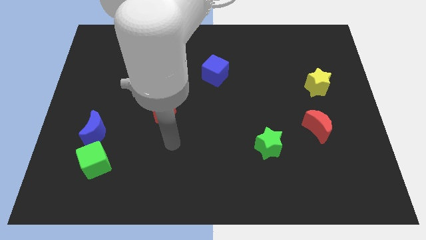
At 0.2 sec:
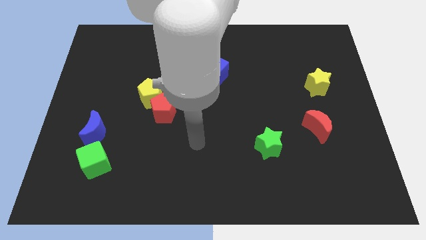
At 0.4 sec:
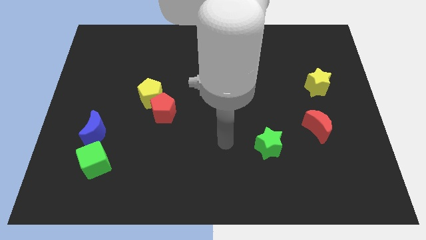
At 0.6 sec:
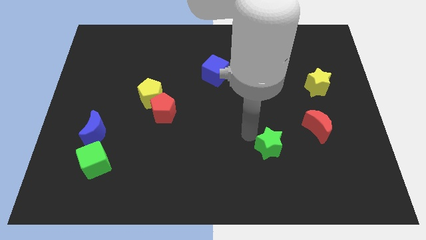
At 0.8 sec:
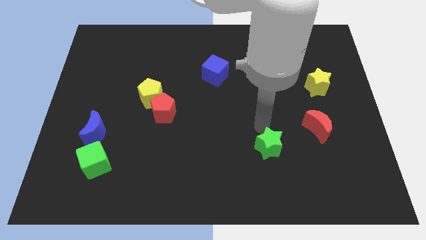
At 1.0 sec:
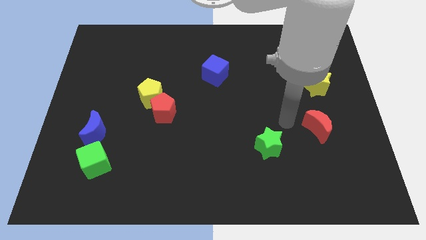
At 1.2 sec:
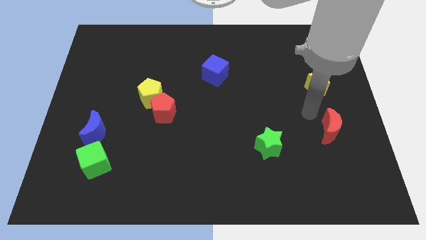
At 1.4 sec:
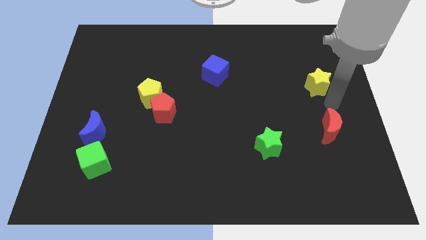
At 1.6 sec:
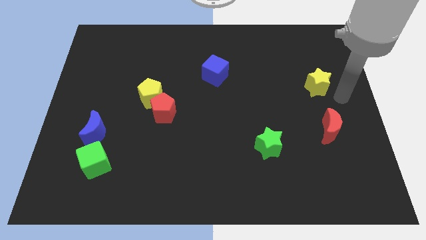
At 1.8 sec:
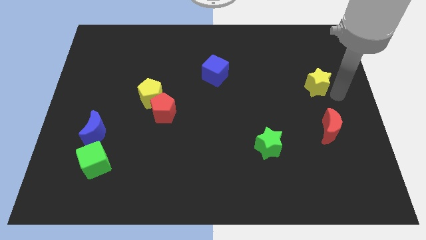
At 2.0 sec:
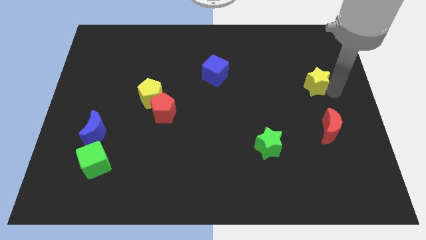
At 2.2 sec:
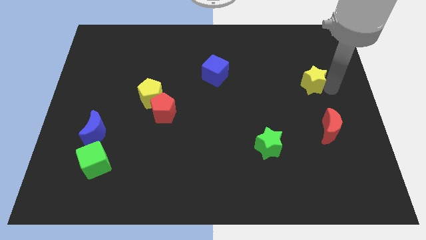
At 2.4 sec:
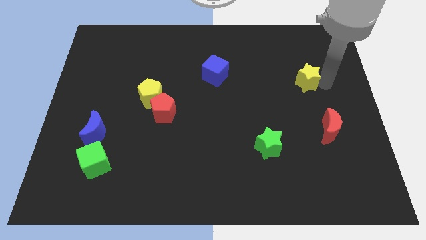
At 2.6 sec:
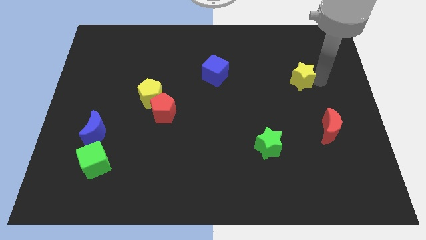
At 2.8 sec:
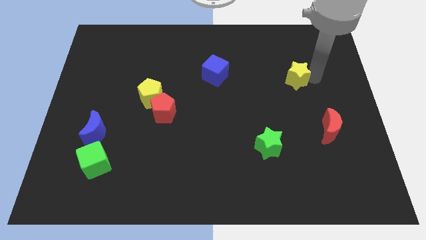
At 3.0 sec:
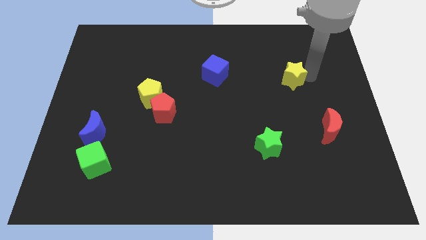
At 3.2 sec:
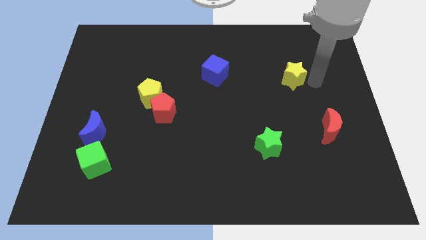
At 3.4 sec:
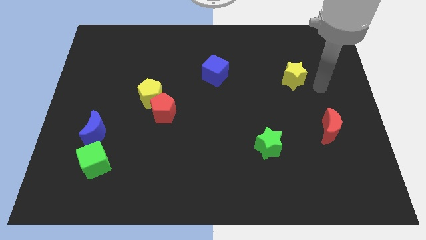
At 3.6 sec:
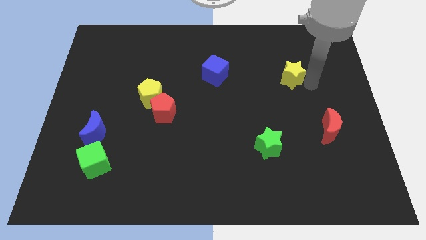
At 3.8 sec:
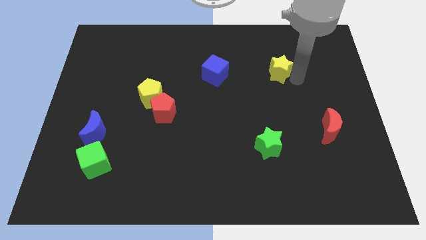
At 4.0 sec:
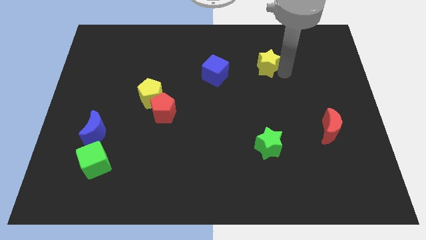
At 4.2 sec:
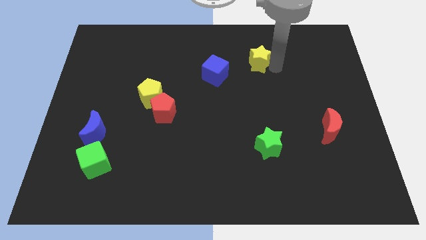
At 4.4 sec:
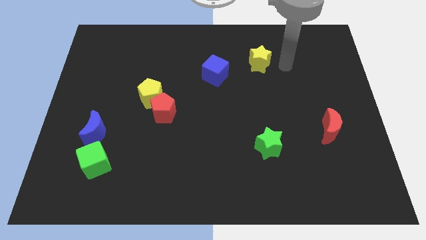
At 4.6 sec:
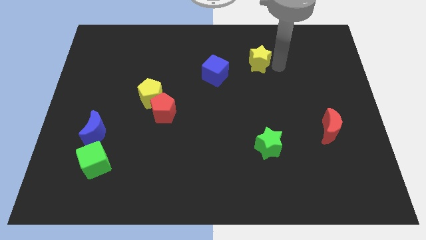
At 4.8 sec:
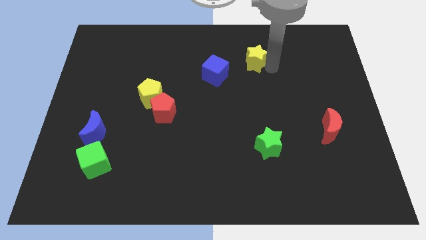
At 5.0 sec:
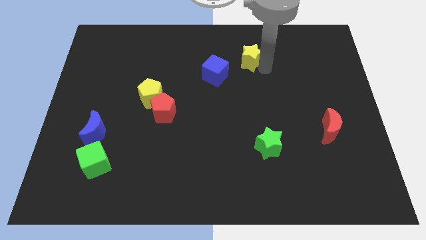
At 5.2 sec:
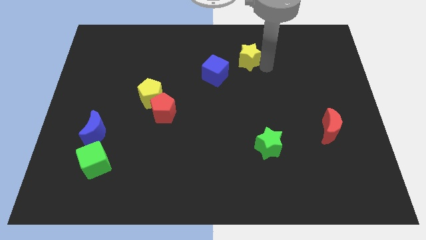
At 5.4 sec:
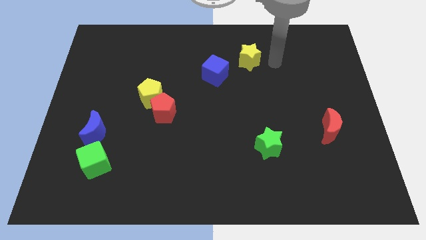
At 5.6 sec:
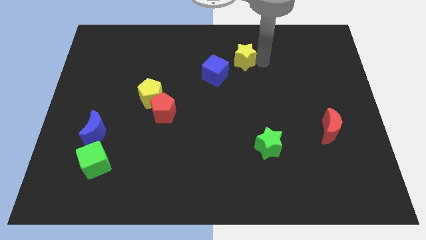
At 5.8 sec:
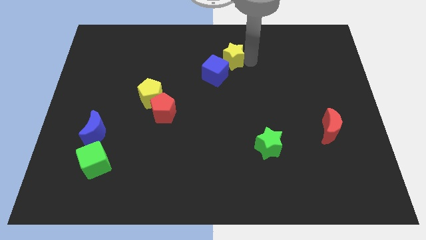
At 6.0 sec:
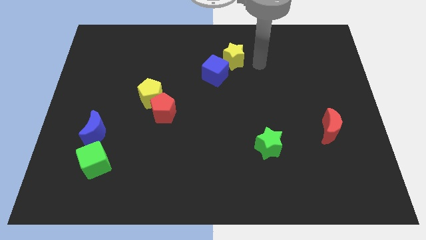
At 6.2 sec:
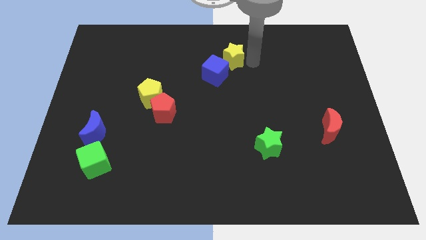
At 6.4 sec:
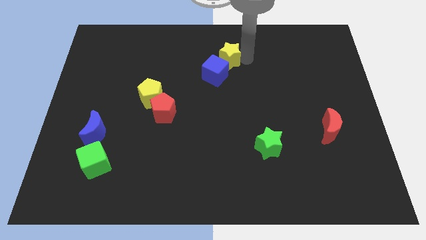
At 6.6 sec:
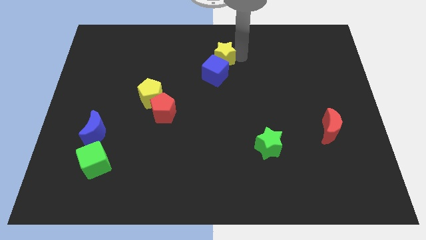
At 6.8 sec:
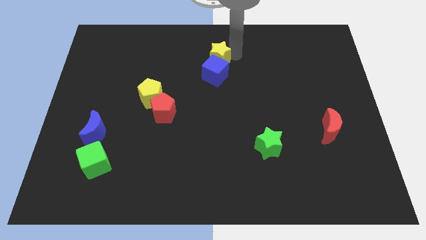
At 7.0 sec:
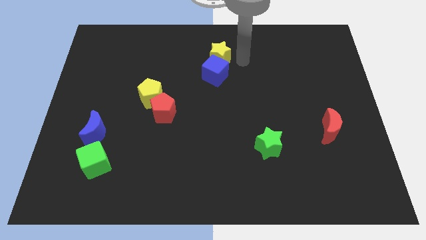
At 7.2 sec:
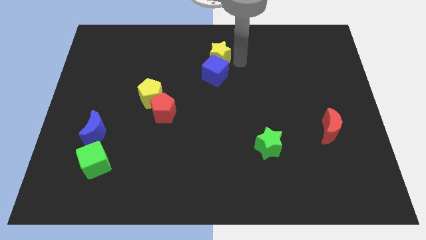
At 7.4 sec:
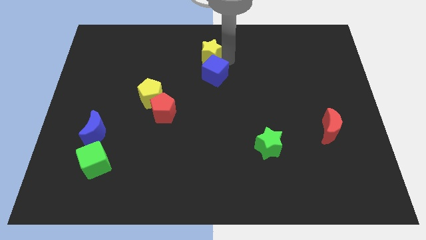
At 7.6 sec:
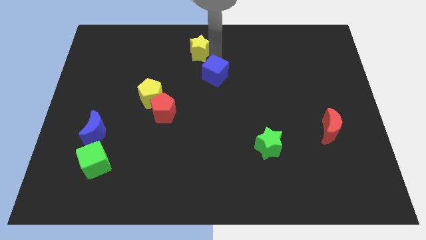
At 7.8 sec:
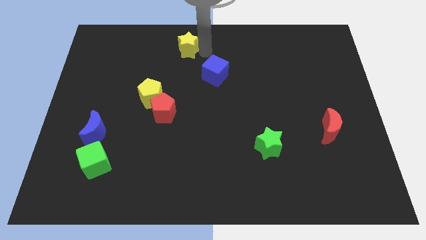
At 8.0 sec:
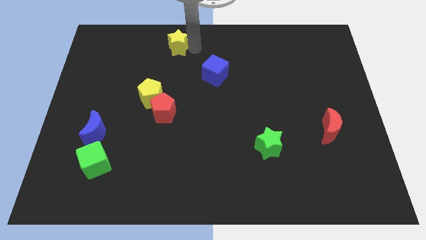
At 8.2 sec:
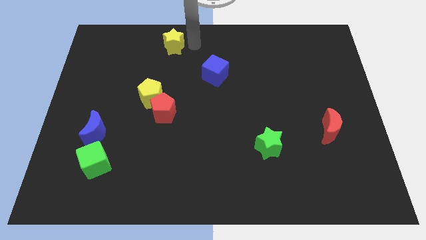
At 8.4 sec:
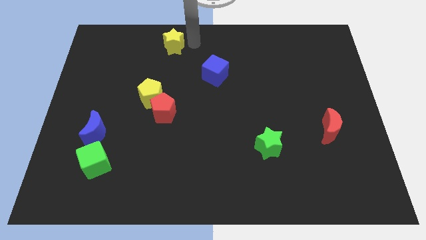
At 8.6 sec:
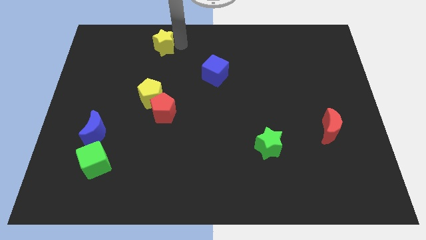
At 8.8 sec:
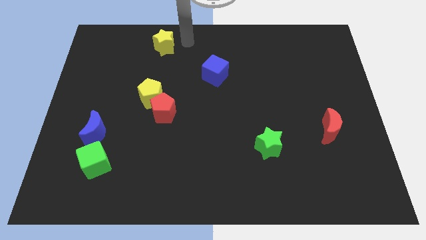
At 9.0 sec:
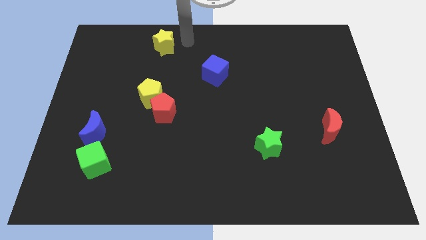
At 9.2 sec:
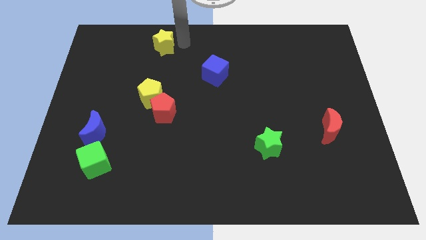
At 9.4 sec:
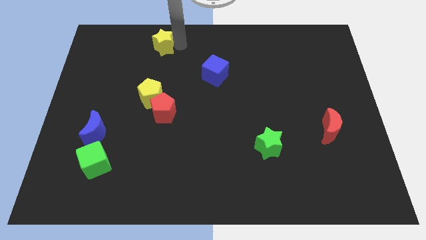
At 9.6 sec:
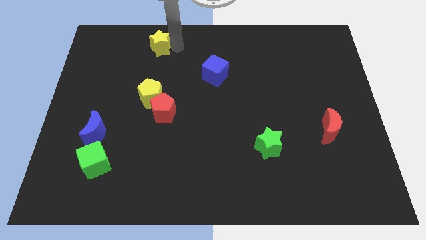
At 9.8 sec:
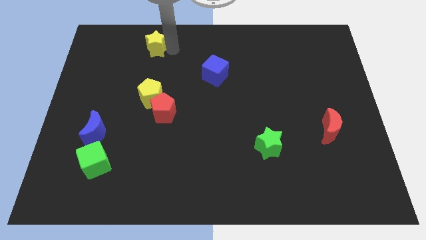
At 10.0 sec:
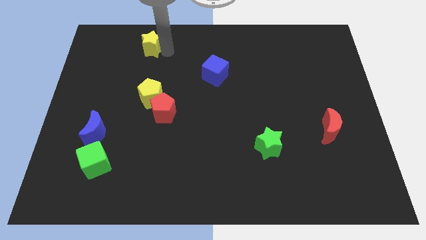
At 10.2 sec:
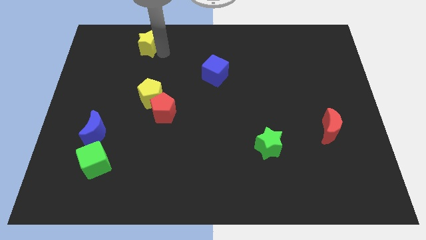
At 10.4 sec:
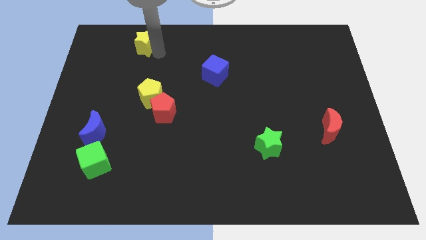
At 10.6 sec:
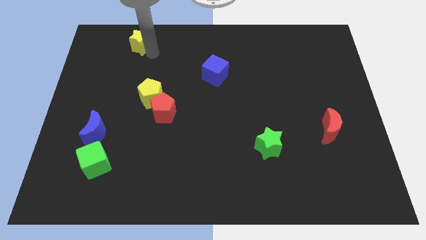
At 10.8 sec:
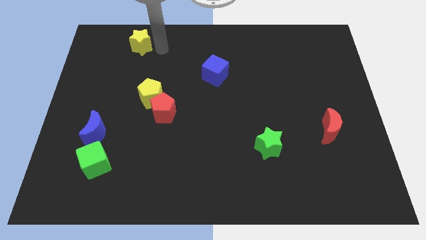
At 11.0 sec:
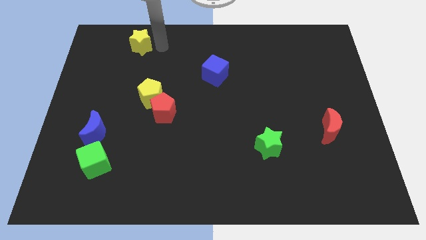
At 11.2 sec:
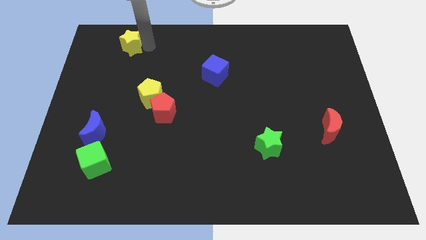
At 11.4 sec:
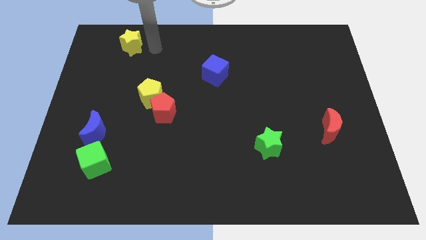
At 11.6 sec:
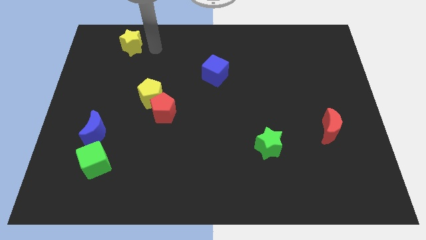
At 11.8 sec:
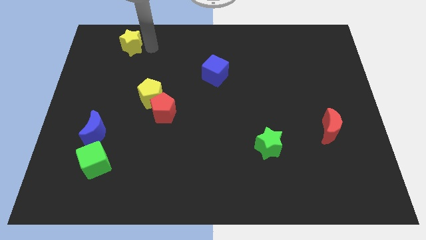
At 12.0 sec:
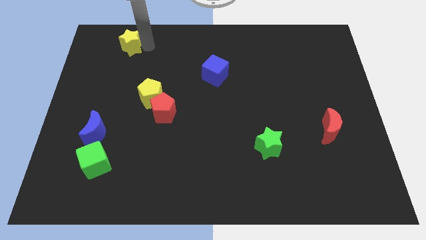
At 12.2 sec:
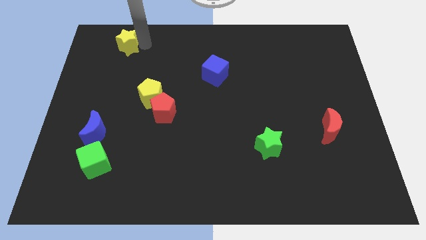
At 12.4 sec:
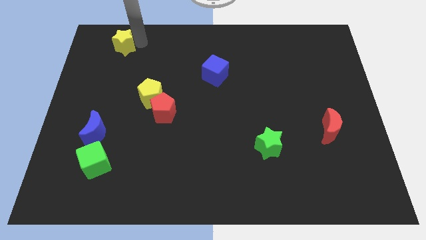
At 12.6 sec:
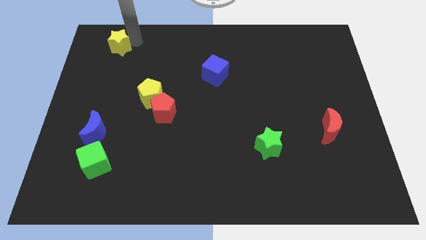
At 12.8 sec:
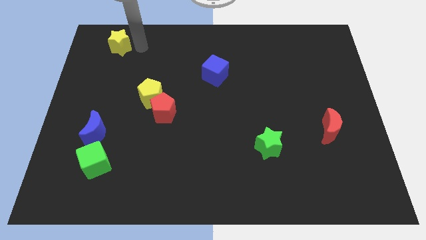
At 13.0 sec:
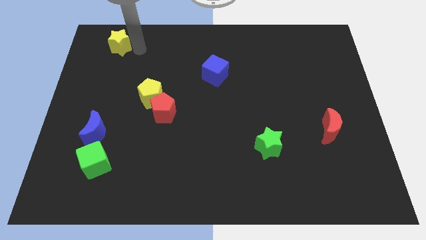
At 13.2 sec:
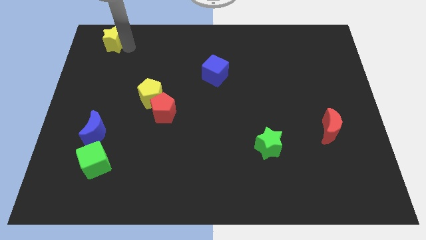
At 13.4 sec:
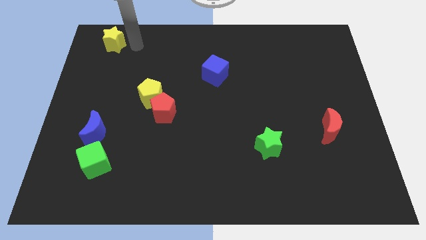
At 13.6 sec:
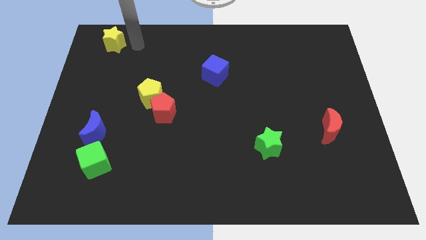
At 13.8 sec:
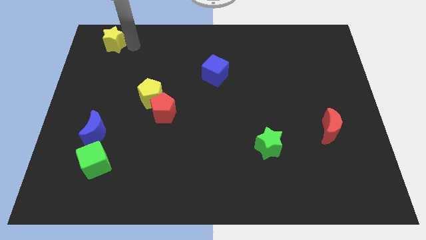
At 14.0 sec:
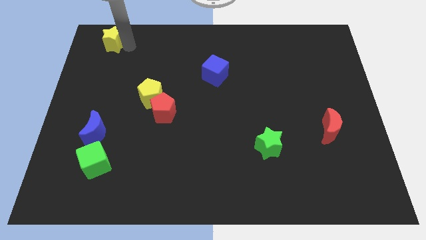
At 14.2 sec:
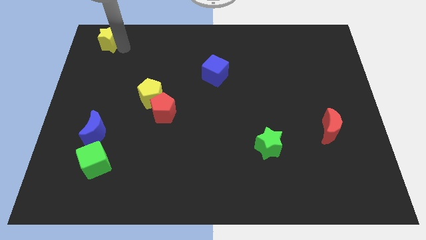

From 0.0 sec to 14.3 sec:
slide the yellow star to the top left of the board
